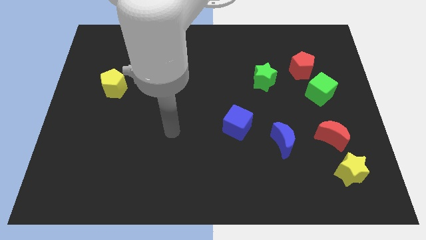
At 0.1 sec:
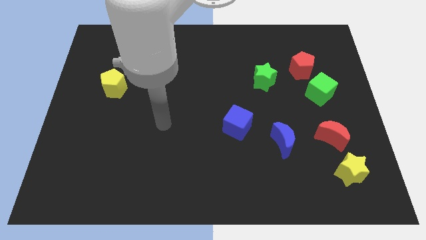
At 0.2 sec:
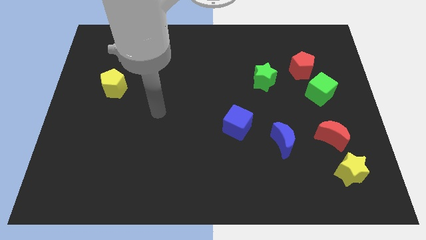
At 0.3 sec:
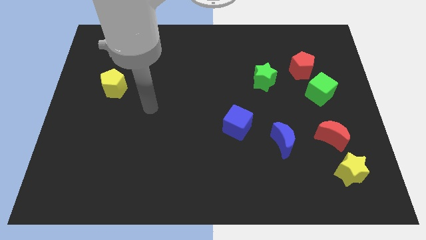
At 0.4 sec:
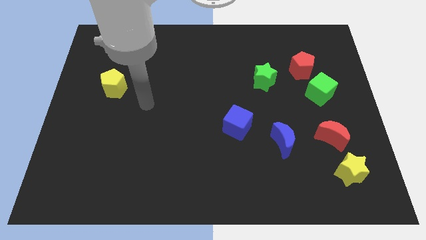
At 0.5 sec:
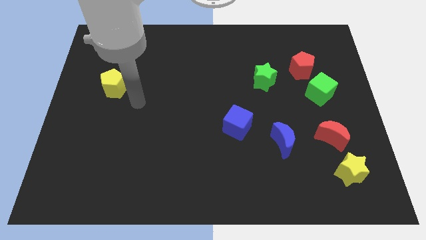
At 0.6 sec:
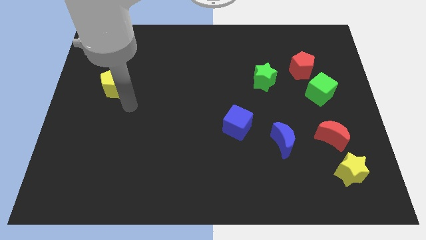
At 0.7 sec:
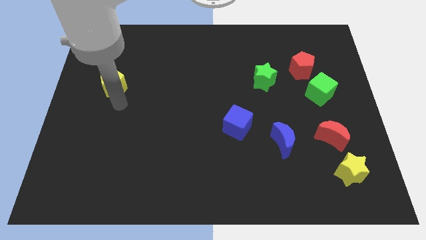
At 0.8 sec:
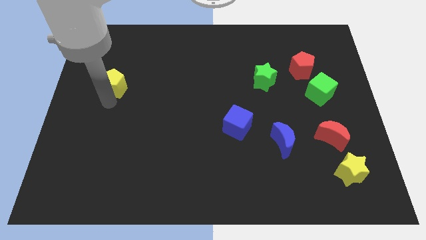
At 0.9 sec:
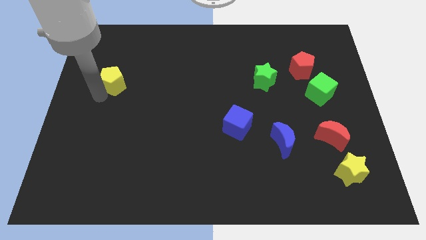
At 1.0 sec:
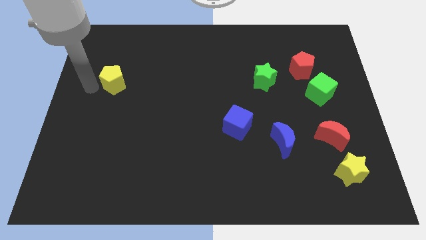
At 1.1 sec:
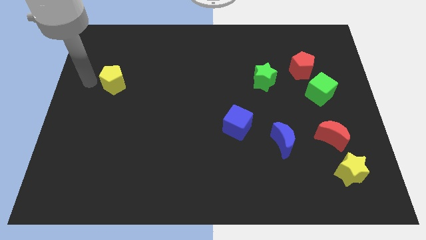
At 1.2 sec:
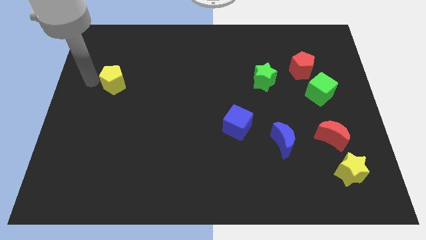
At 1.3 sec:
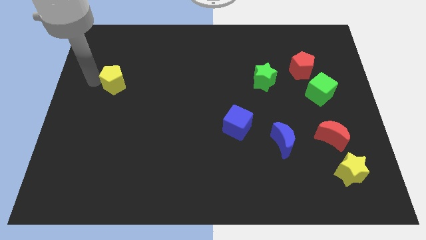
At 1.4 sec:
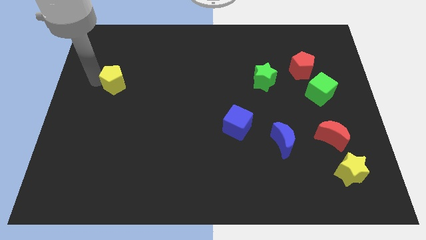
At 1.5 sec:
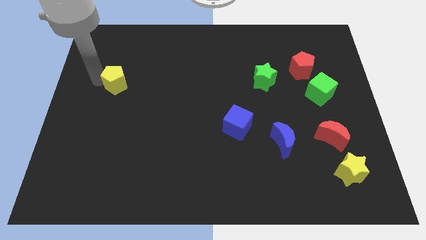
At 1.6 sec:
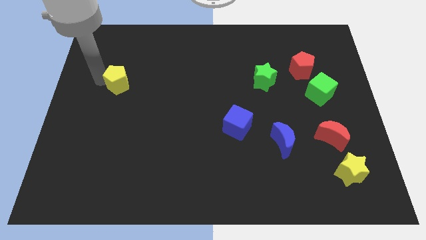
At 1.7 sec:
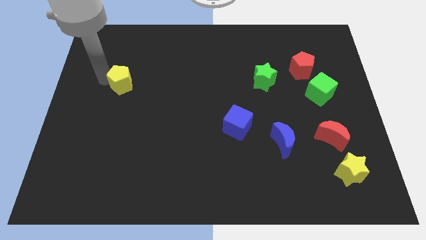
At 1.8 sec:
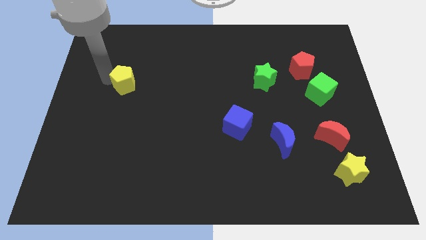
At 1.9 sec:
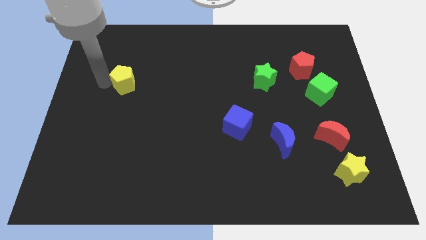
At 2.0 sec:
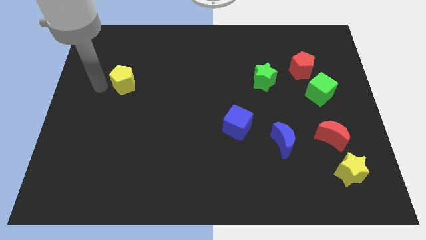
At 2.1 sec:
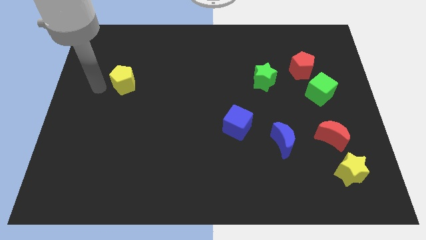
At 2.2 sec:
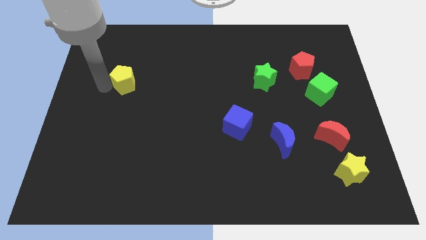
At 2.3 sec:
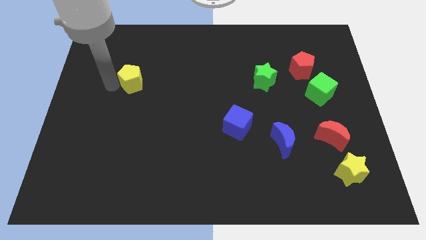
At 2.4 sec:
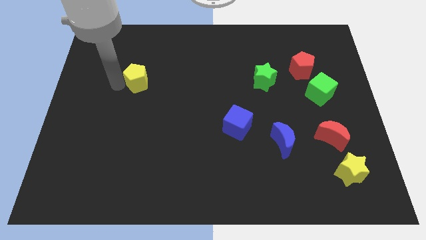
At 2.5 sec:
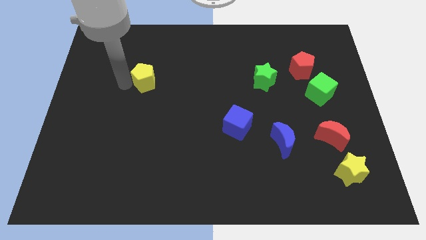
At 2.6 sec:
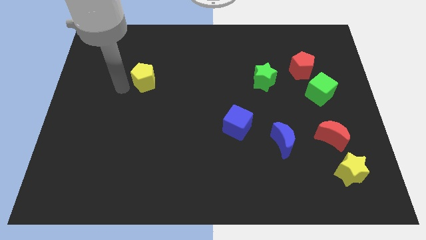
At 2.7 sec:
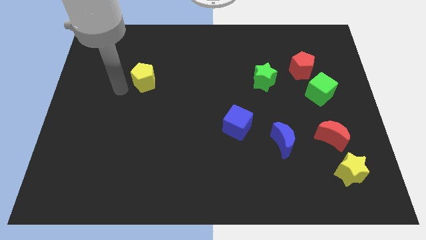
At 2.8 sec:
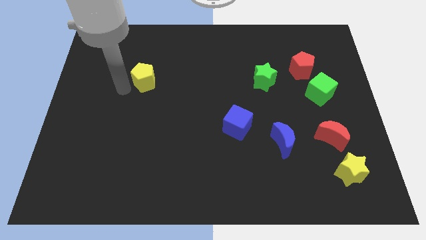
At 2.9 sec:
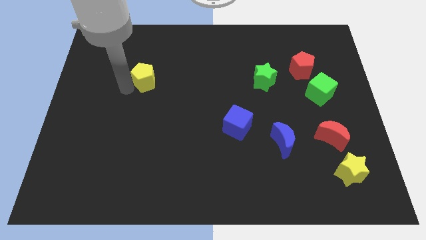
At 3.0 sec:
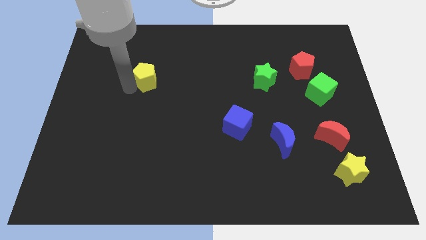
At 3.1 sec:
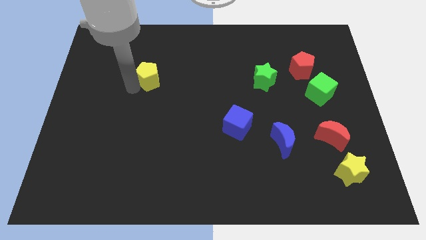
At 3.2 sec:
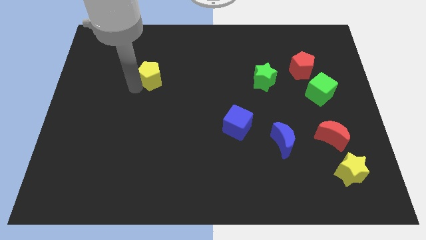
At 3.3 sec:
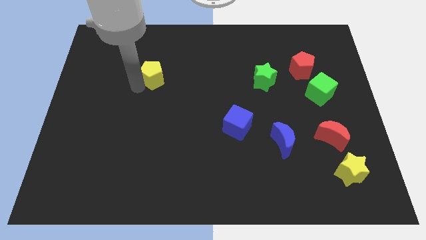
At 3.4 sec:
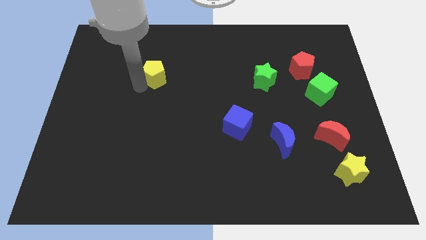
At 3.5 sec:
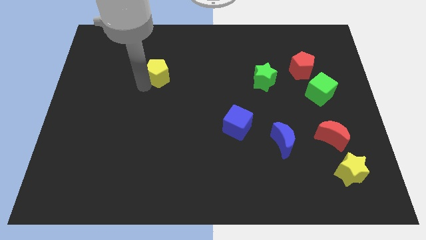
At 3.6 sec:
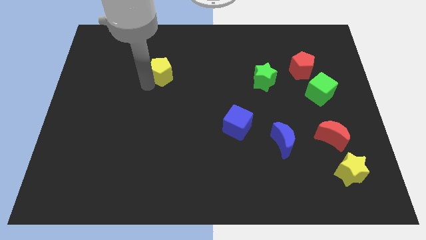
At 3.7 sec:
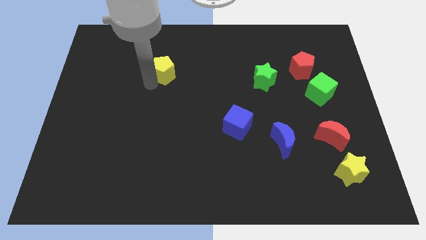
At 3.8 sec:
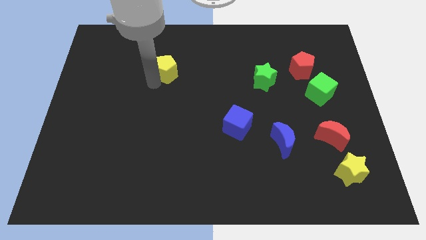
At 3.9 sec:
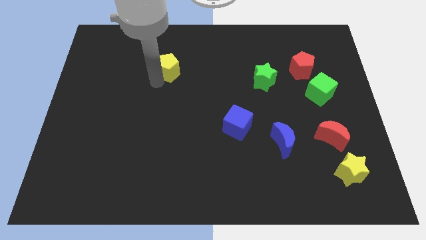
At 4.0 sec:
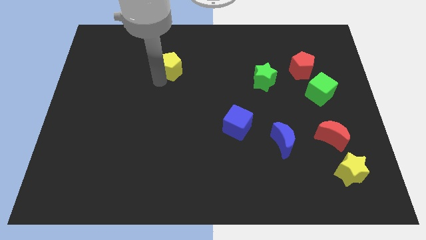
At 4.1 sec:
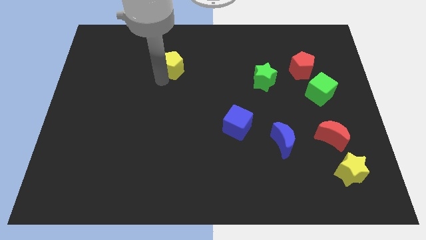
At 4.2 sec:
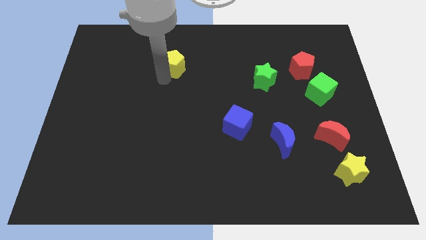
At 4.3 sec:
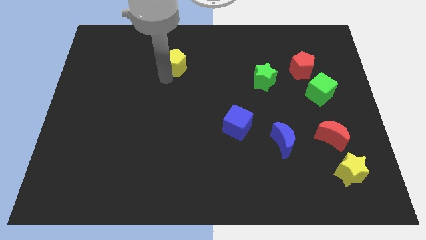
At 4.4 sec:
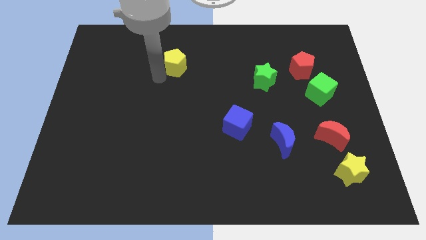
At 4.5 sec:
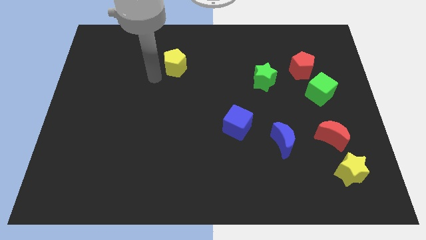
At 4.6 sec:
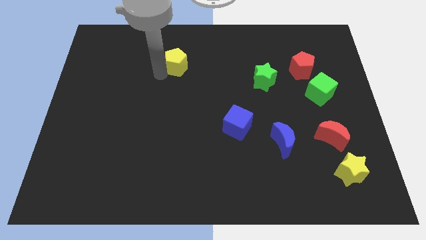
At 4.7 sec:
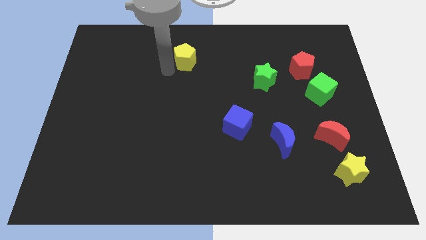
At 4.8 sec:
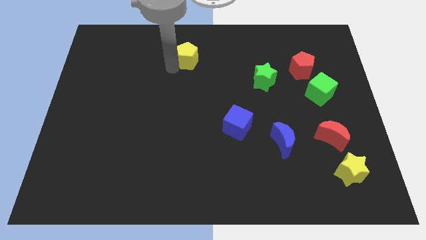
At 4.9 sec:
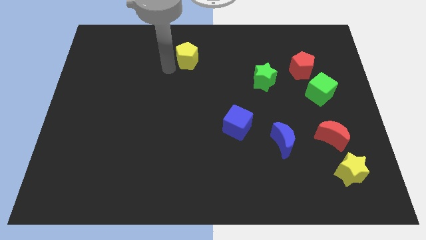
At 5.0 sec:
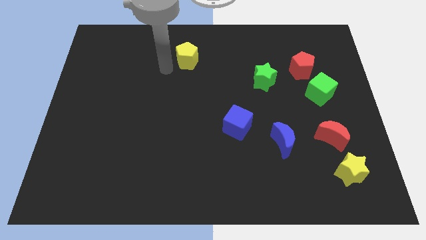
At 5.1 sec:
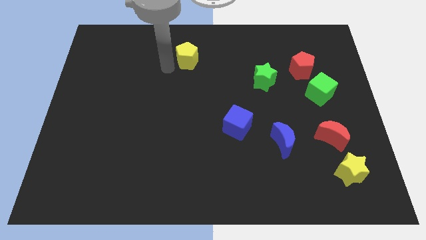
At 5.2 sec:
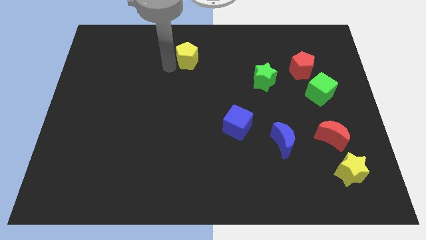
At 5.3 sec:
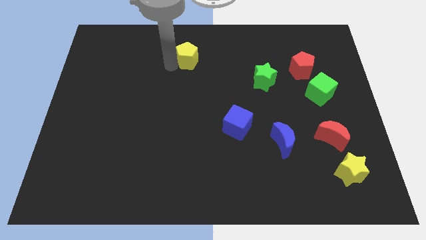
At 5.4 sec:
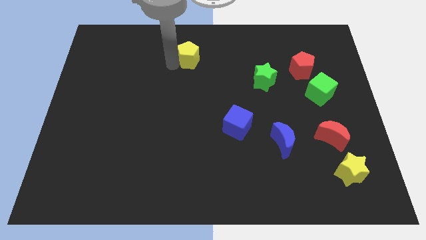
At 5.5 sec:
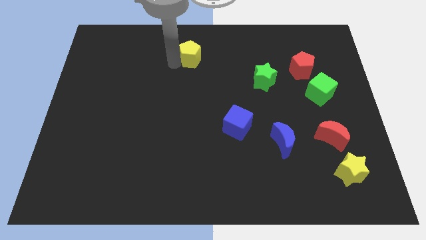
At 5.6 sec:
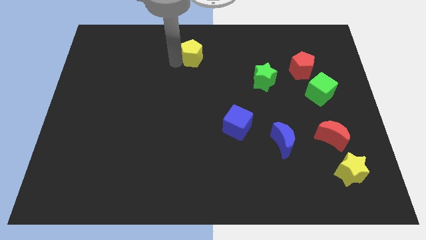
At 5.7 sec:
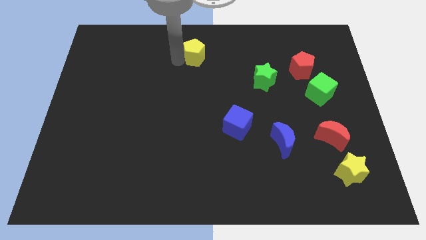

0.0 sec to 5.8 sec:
put the yellow pentagon to the top side

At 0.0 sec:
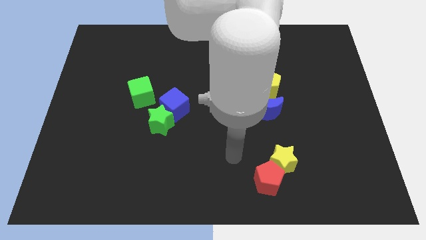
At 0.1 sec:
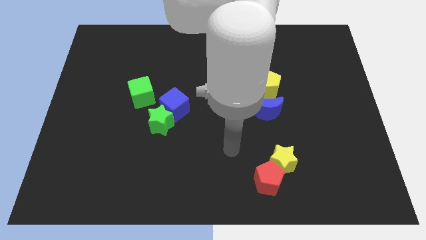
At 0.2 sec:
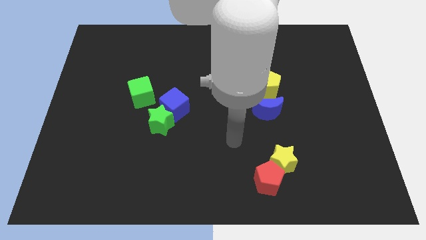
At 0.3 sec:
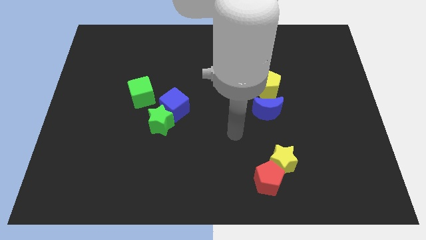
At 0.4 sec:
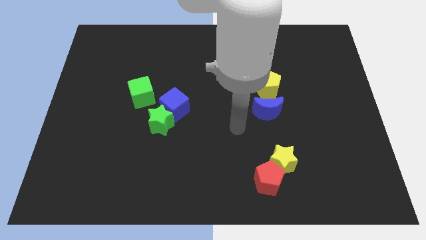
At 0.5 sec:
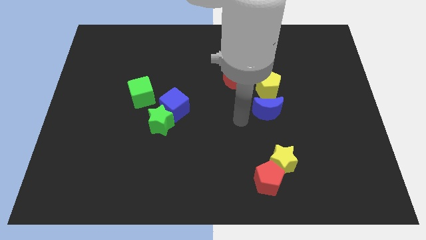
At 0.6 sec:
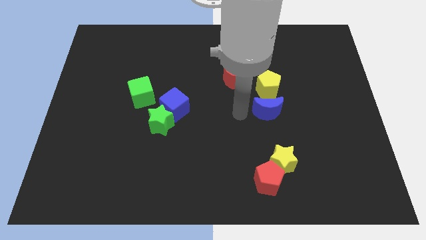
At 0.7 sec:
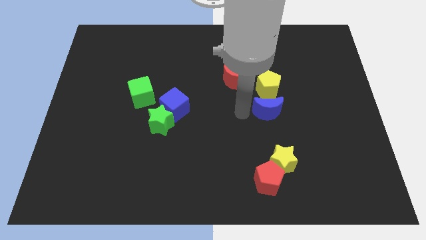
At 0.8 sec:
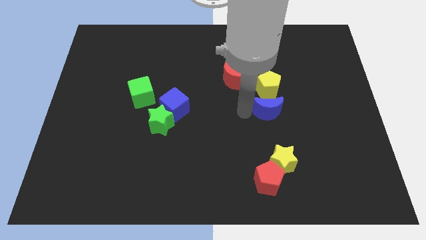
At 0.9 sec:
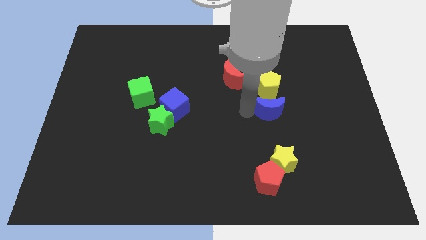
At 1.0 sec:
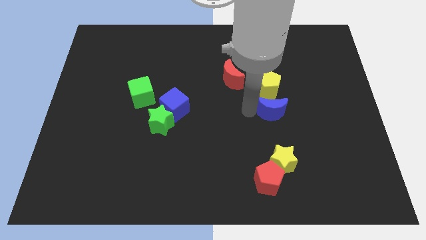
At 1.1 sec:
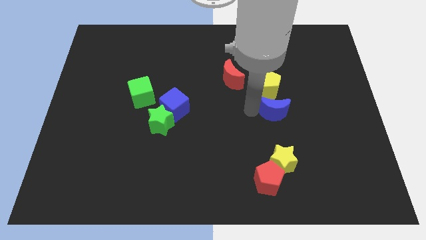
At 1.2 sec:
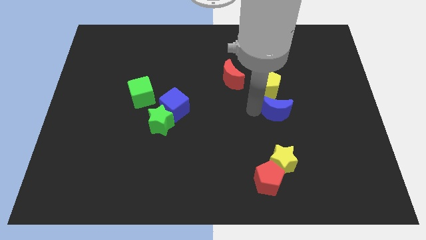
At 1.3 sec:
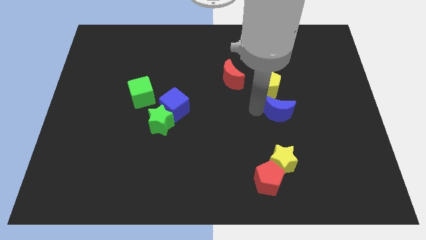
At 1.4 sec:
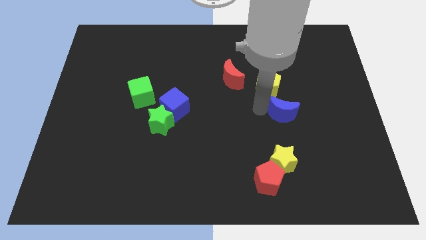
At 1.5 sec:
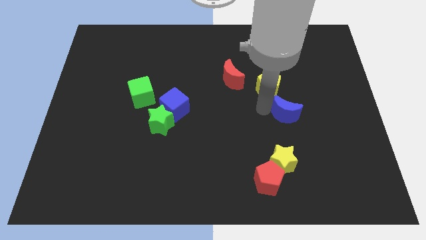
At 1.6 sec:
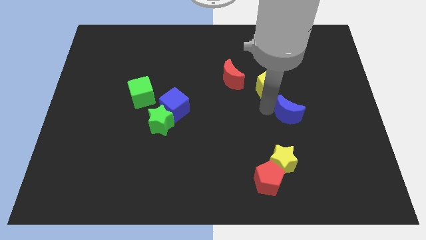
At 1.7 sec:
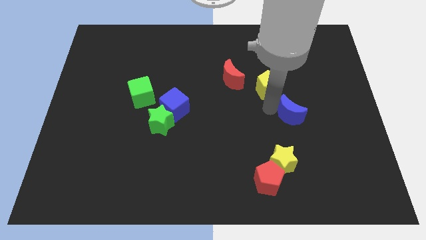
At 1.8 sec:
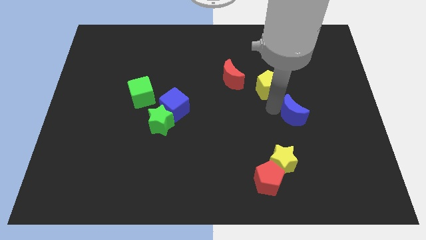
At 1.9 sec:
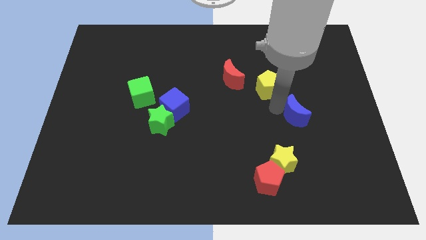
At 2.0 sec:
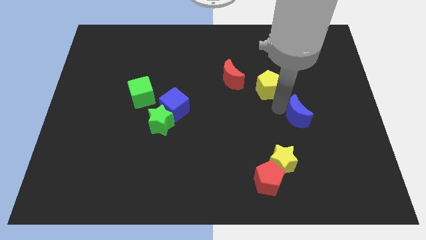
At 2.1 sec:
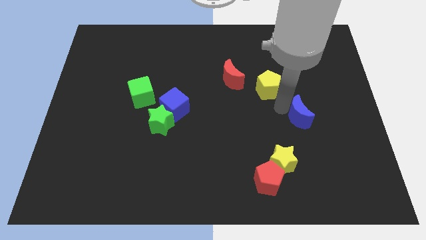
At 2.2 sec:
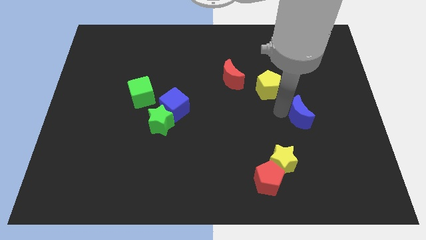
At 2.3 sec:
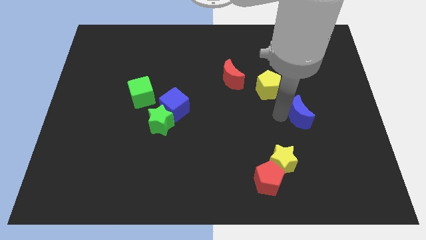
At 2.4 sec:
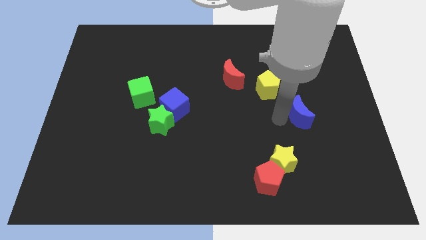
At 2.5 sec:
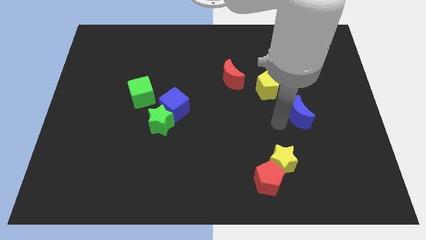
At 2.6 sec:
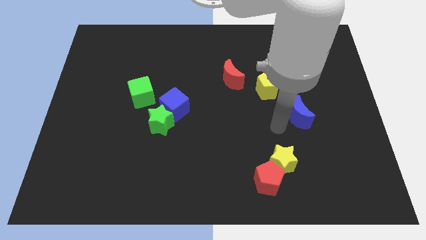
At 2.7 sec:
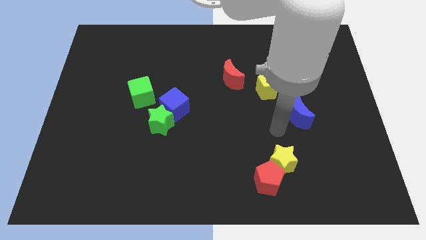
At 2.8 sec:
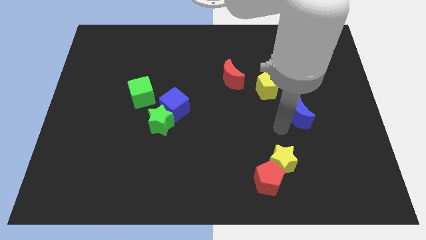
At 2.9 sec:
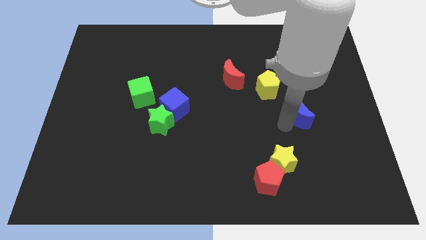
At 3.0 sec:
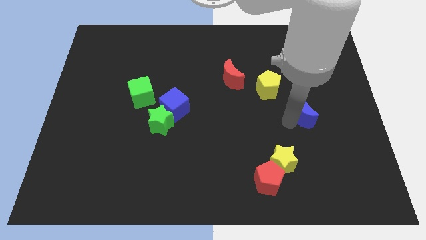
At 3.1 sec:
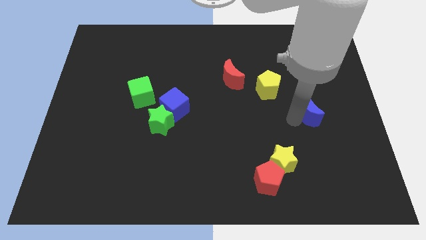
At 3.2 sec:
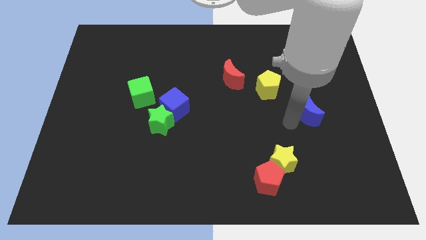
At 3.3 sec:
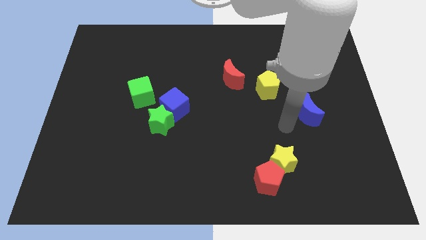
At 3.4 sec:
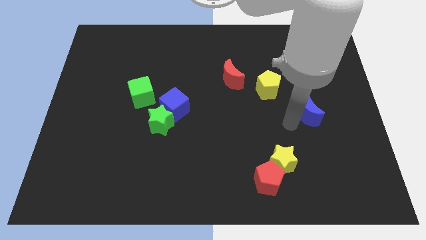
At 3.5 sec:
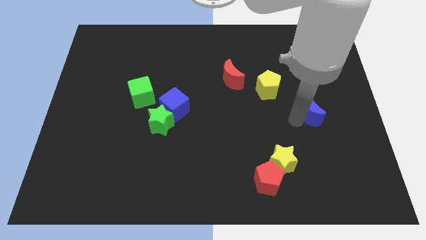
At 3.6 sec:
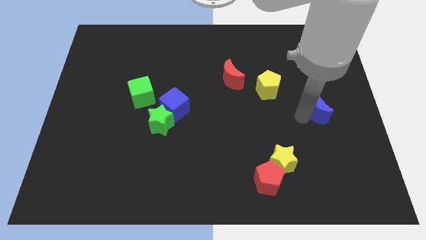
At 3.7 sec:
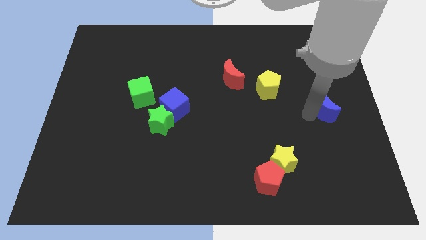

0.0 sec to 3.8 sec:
slide the blue moon to the right side of the board
